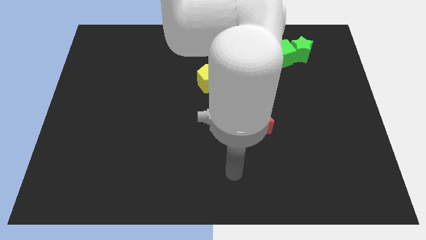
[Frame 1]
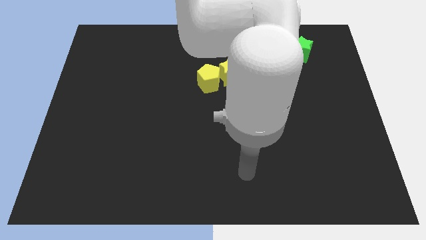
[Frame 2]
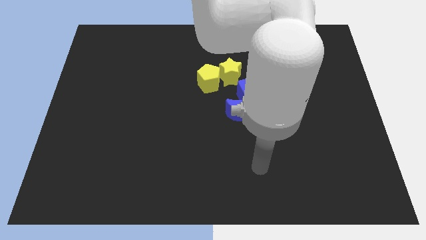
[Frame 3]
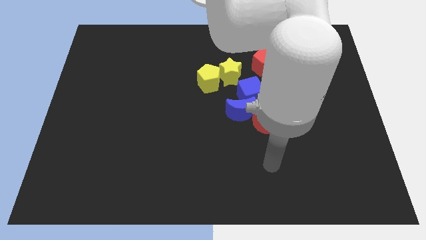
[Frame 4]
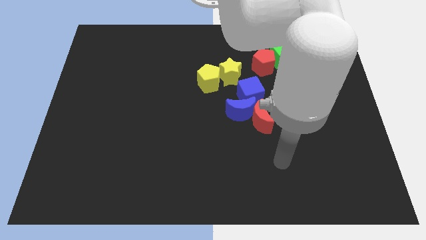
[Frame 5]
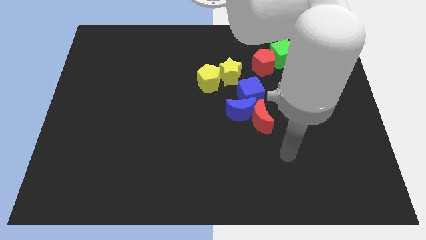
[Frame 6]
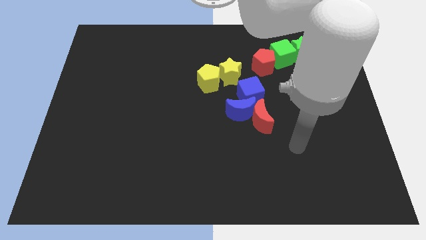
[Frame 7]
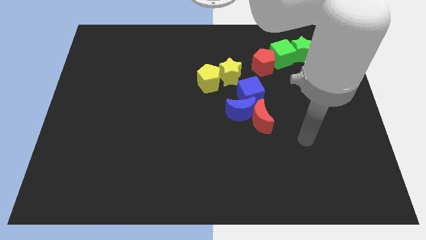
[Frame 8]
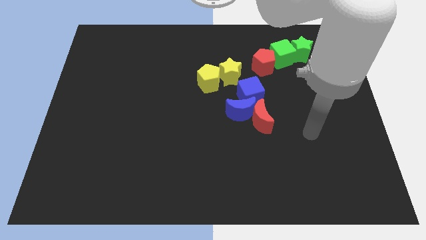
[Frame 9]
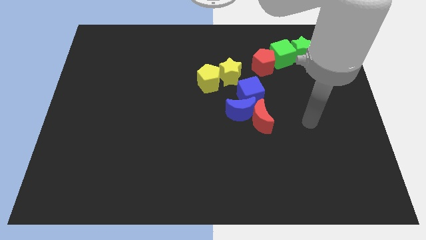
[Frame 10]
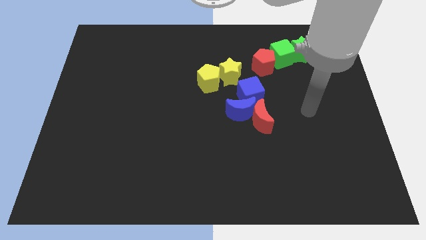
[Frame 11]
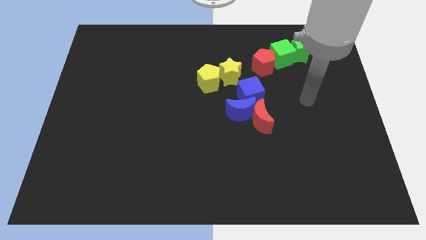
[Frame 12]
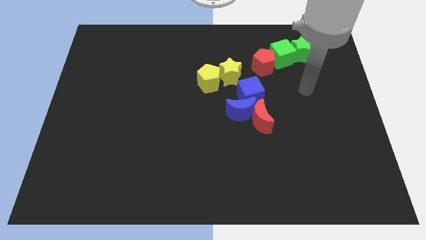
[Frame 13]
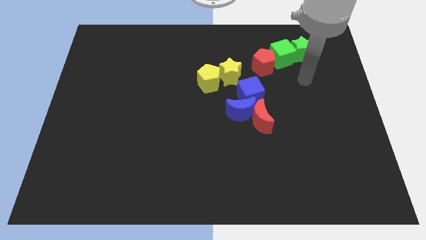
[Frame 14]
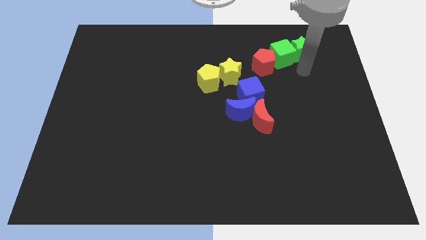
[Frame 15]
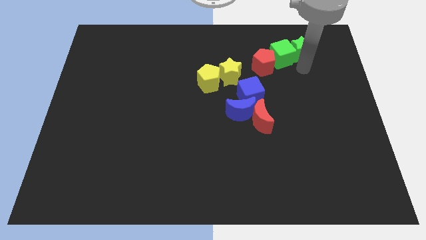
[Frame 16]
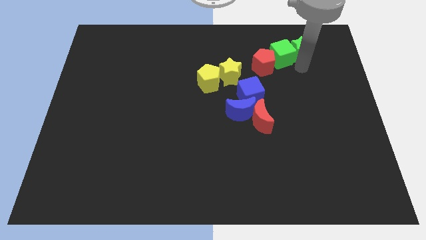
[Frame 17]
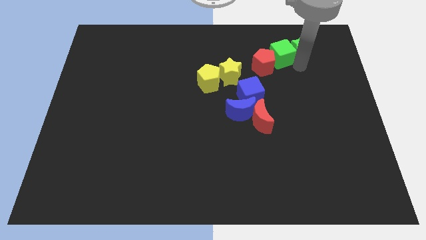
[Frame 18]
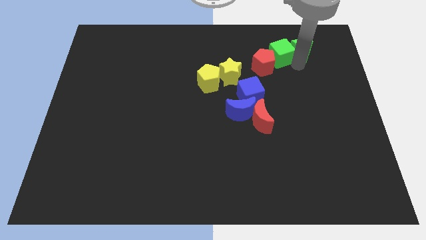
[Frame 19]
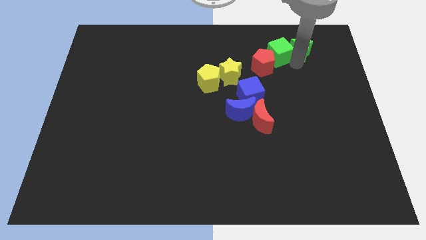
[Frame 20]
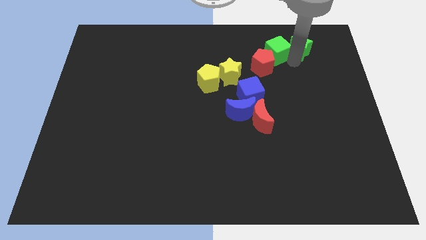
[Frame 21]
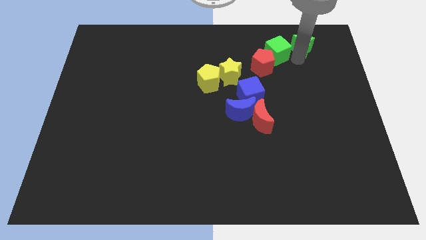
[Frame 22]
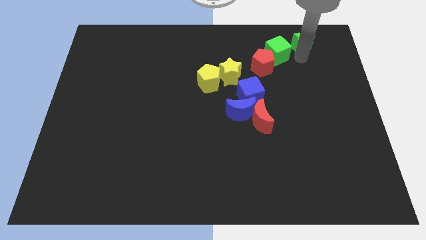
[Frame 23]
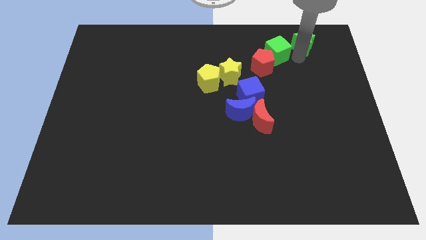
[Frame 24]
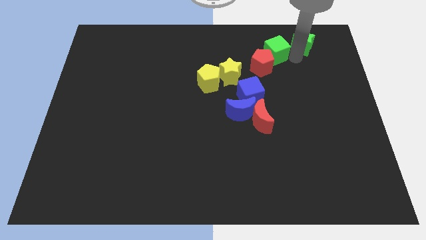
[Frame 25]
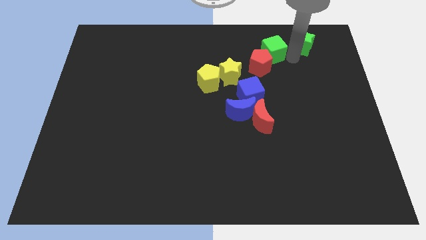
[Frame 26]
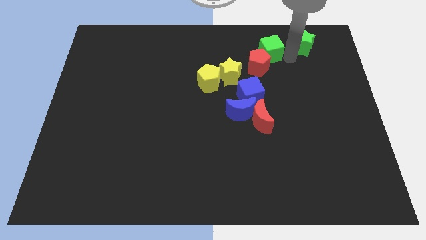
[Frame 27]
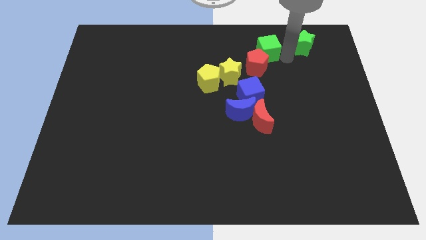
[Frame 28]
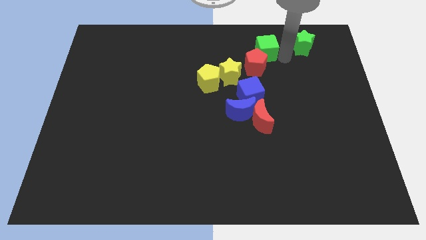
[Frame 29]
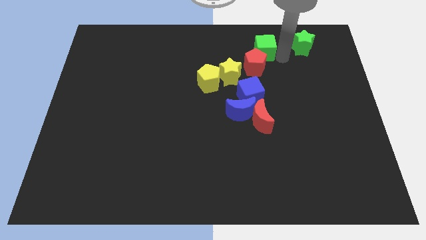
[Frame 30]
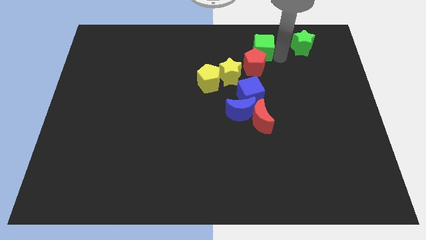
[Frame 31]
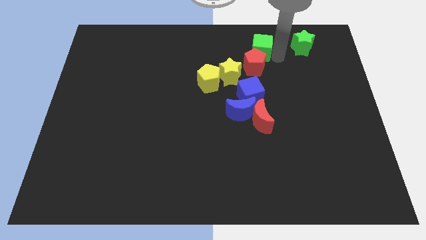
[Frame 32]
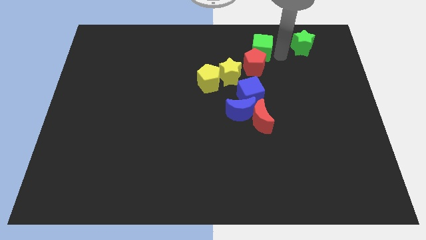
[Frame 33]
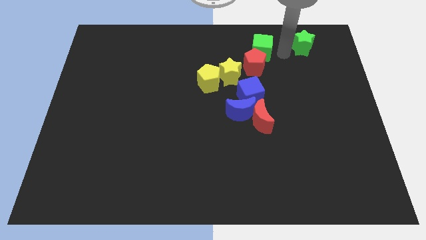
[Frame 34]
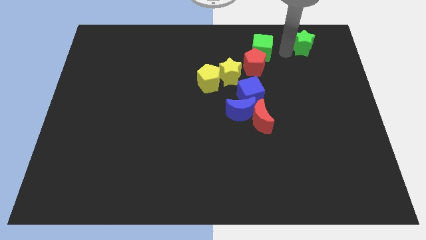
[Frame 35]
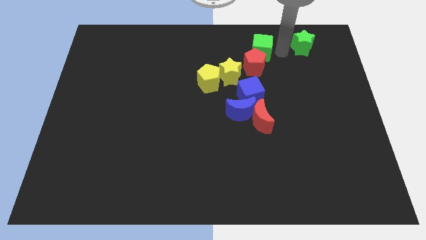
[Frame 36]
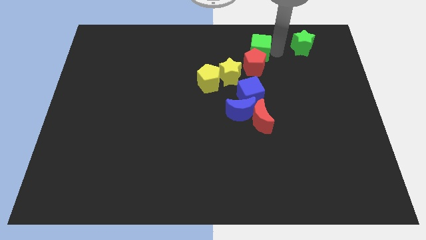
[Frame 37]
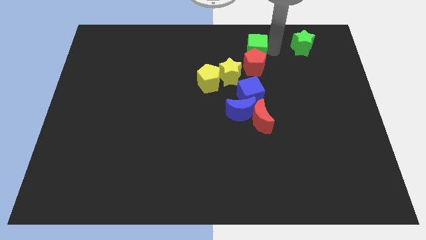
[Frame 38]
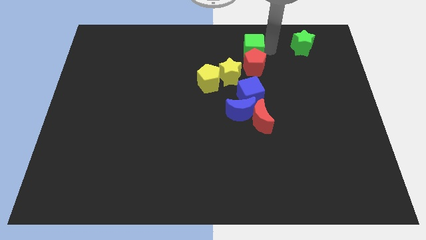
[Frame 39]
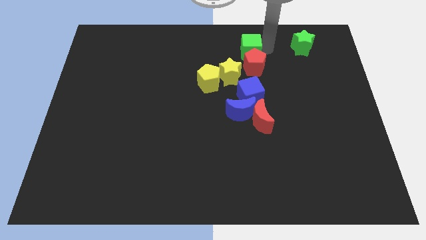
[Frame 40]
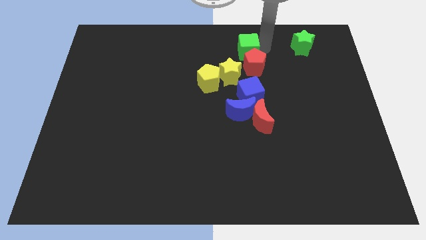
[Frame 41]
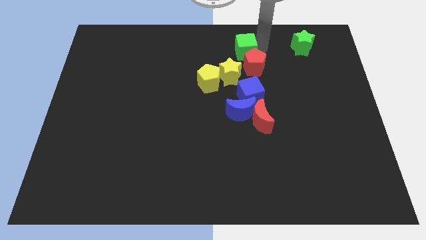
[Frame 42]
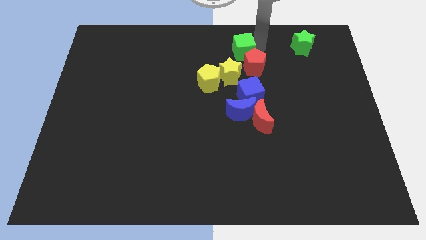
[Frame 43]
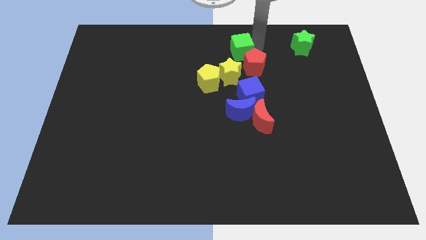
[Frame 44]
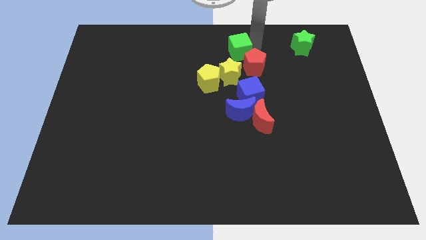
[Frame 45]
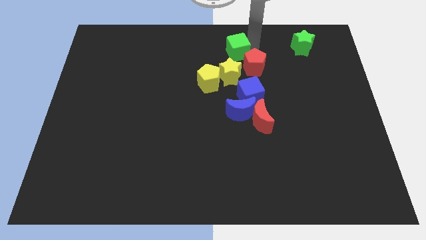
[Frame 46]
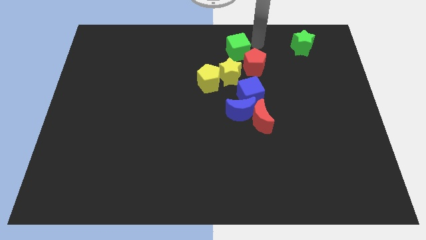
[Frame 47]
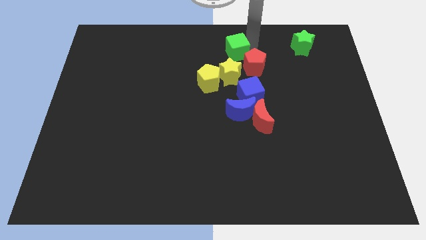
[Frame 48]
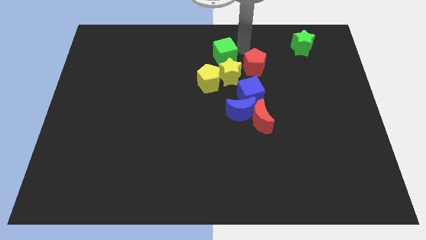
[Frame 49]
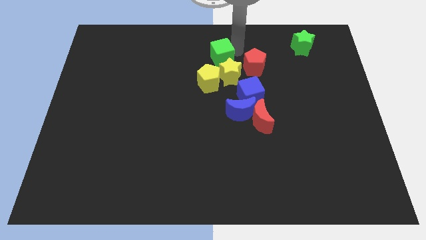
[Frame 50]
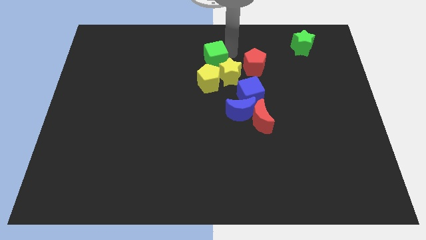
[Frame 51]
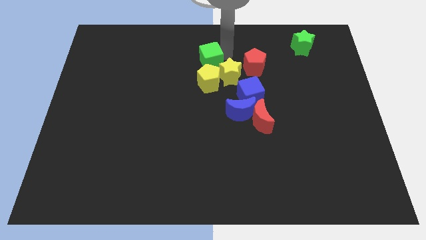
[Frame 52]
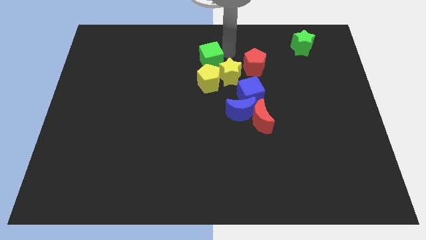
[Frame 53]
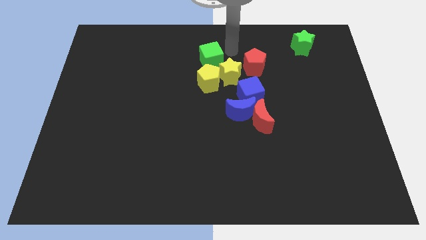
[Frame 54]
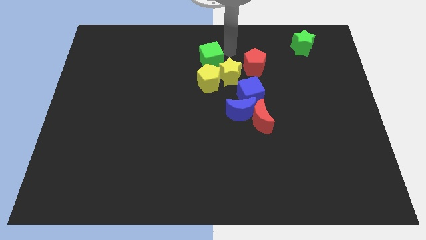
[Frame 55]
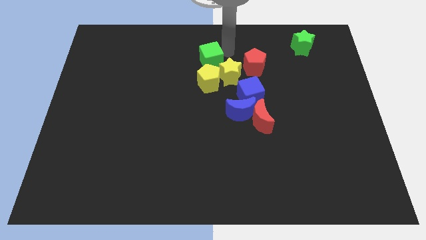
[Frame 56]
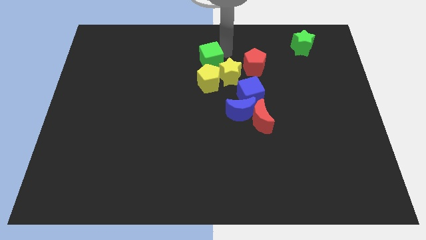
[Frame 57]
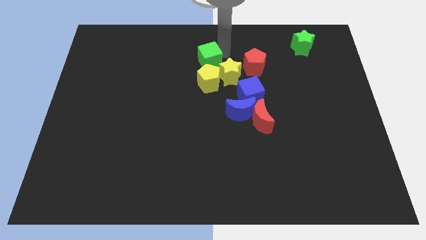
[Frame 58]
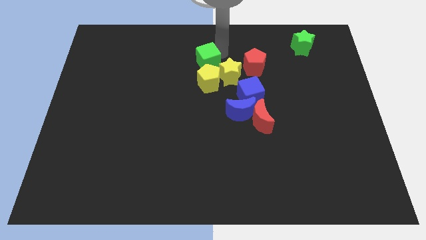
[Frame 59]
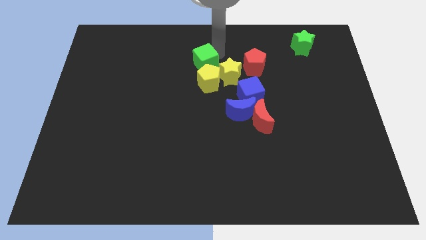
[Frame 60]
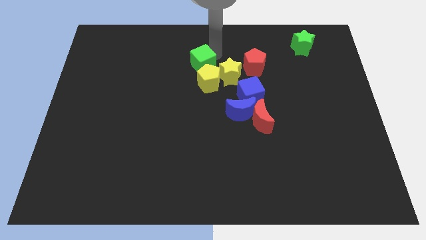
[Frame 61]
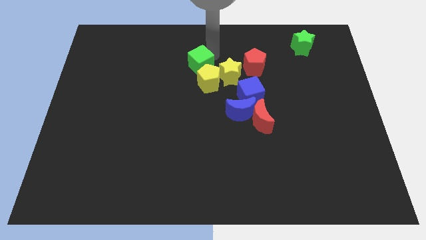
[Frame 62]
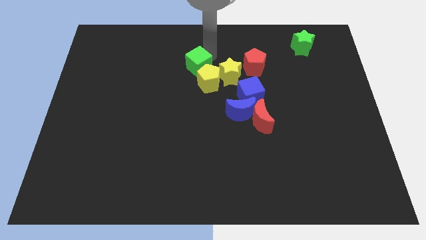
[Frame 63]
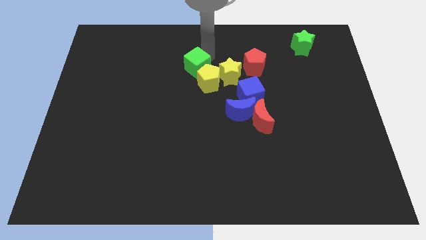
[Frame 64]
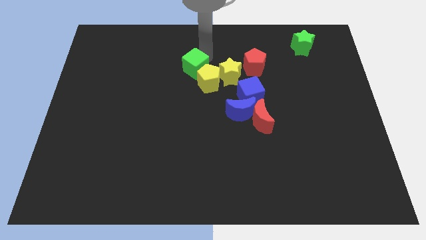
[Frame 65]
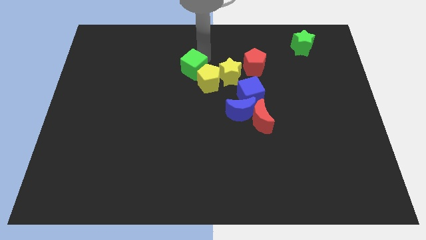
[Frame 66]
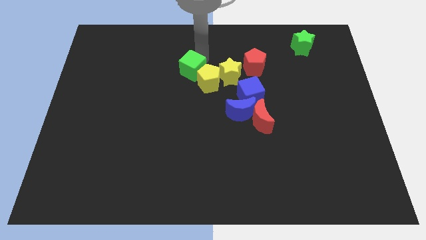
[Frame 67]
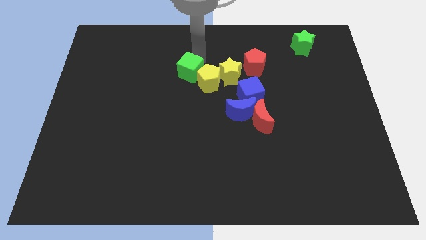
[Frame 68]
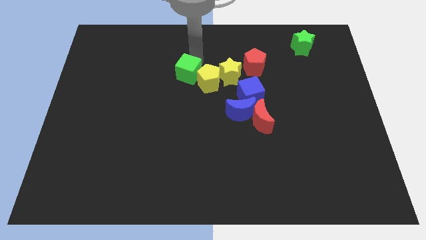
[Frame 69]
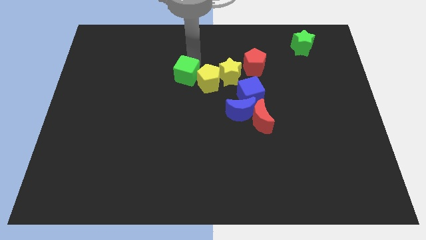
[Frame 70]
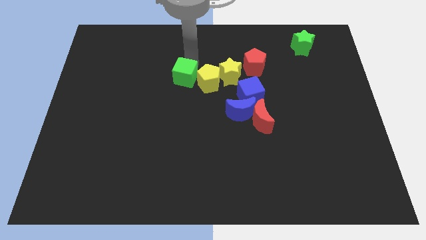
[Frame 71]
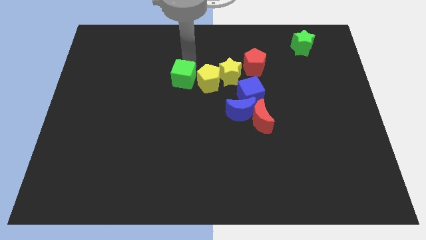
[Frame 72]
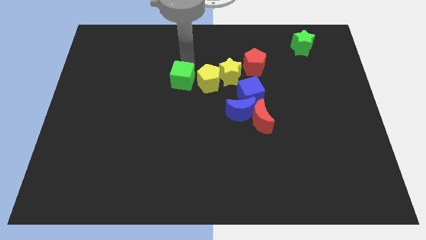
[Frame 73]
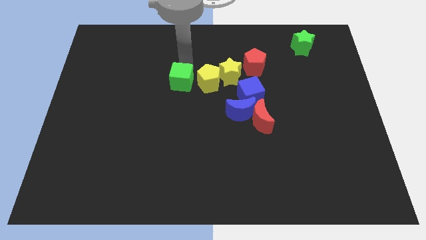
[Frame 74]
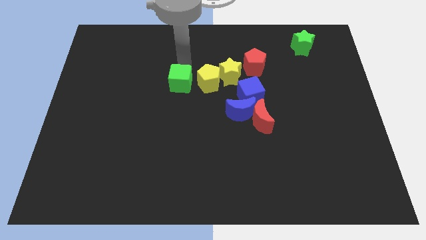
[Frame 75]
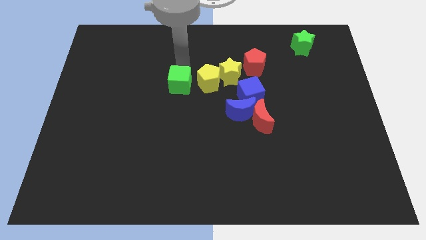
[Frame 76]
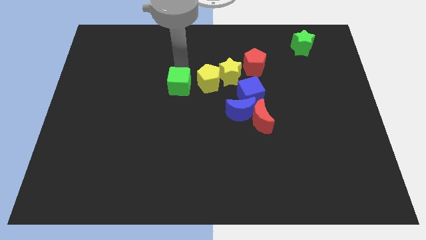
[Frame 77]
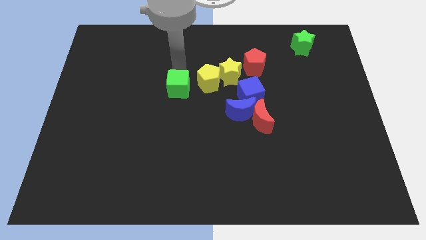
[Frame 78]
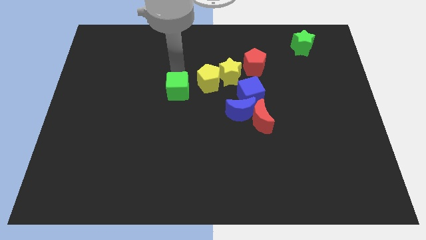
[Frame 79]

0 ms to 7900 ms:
push the green cube diagonally downwards and left

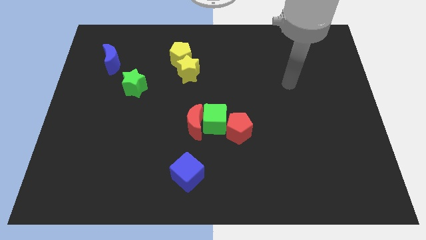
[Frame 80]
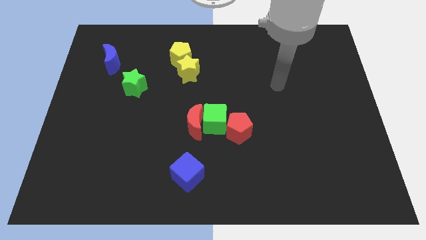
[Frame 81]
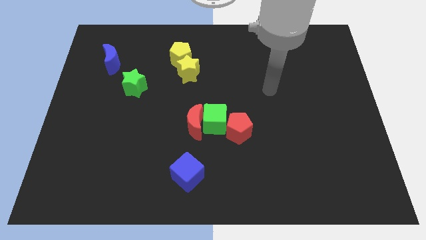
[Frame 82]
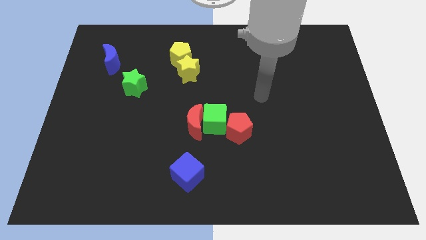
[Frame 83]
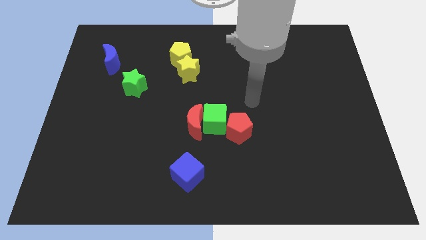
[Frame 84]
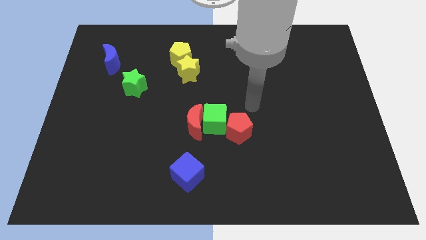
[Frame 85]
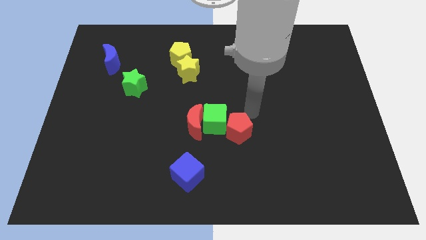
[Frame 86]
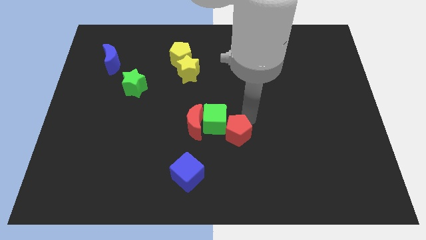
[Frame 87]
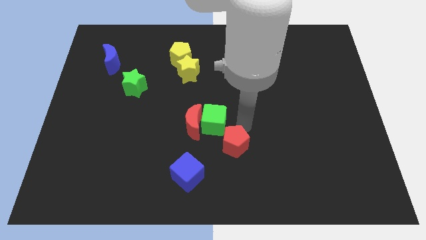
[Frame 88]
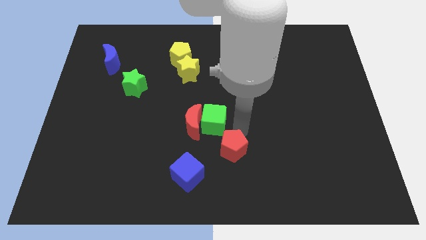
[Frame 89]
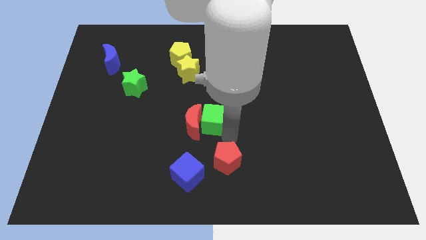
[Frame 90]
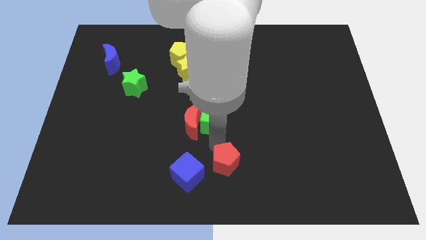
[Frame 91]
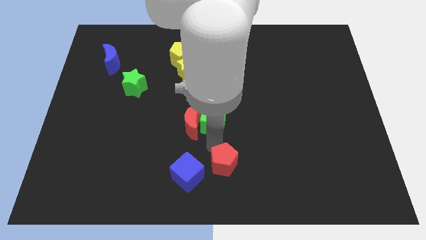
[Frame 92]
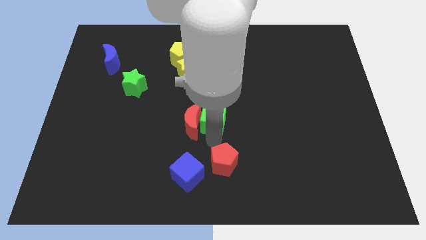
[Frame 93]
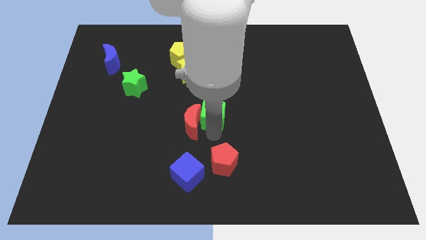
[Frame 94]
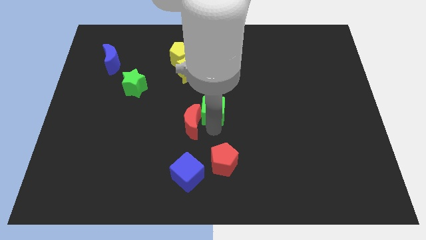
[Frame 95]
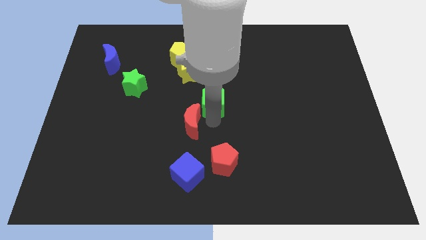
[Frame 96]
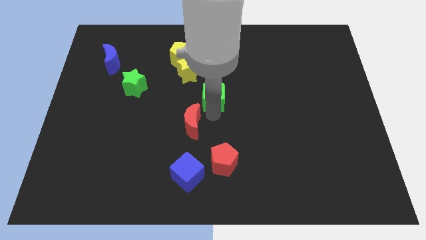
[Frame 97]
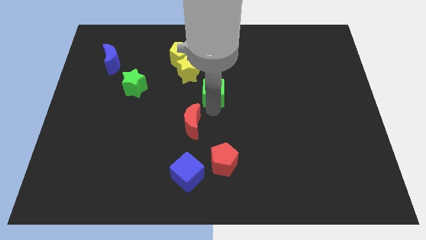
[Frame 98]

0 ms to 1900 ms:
move the green cube a little bit upwards
